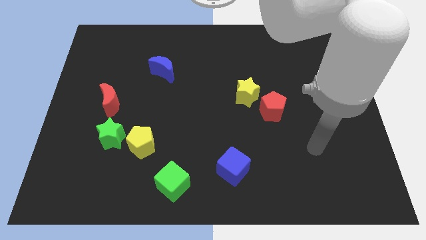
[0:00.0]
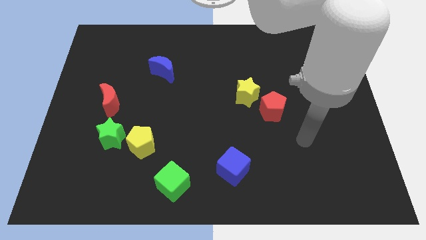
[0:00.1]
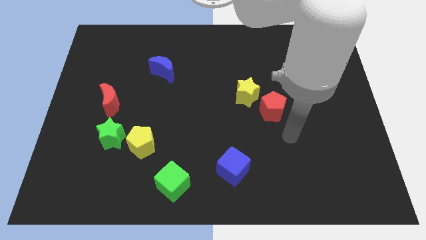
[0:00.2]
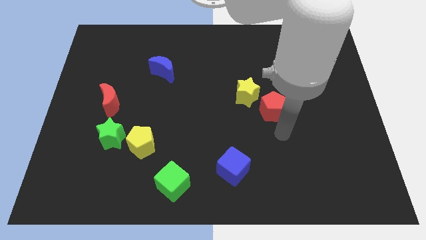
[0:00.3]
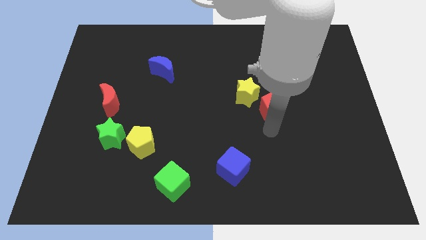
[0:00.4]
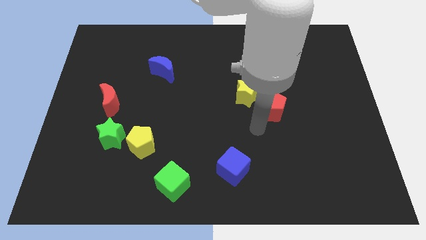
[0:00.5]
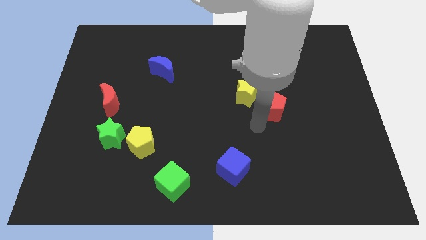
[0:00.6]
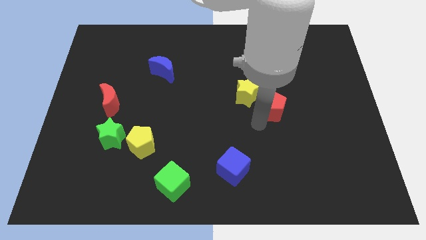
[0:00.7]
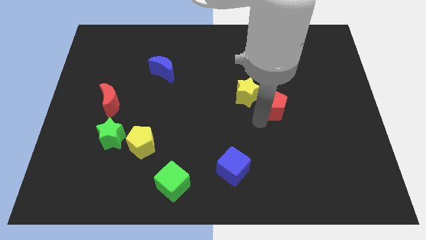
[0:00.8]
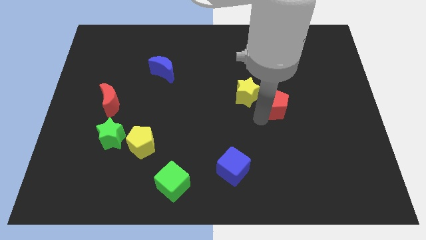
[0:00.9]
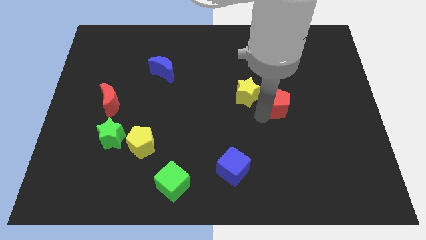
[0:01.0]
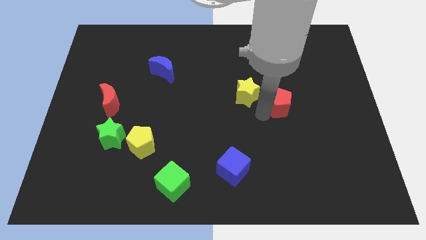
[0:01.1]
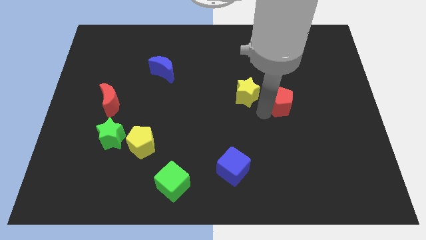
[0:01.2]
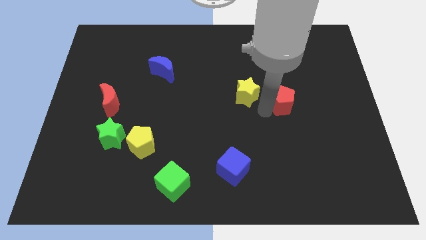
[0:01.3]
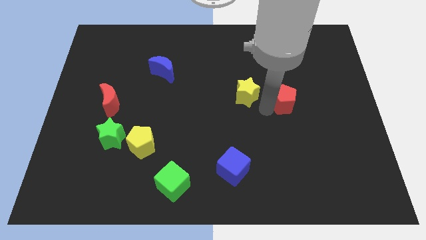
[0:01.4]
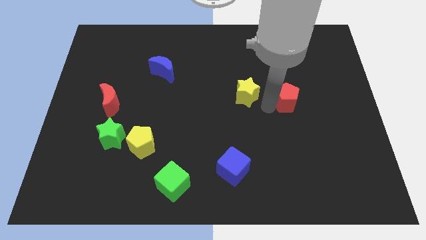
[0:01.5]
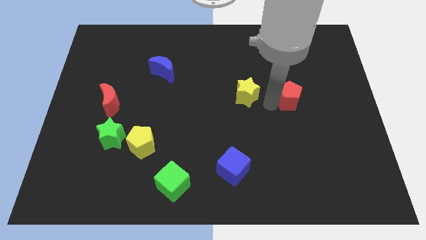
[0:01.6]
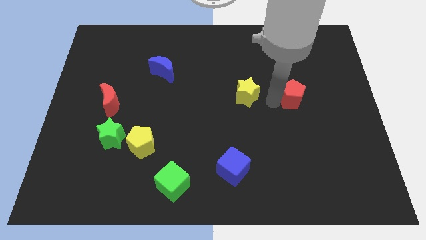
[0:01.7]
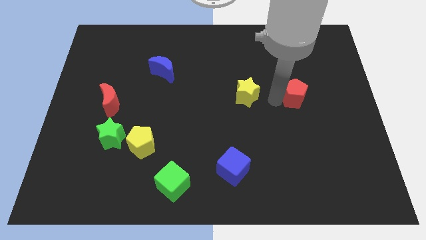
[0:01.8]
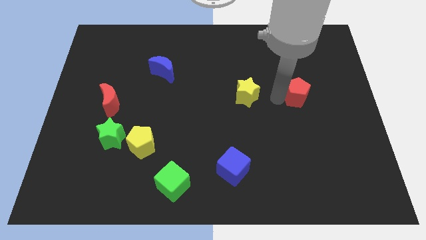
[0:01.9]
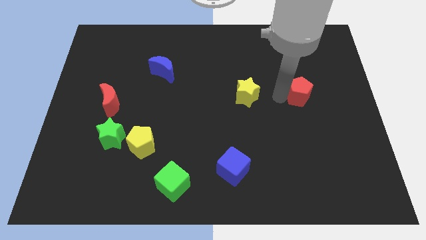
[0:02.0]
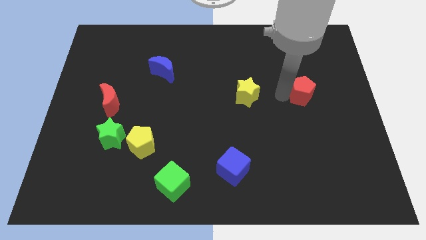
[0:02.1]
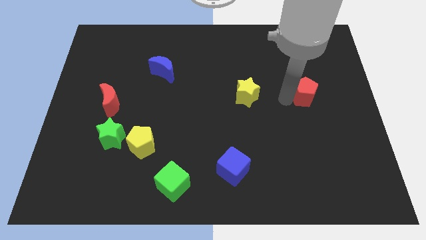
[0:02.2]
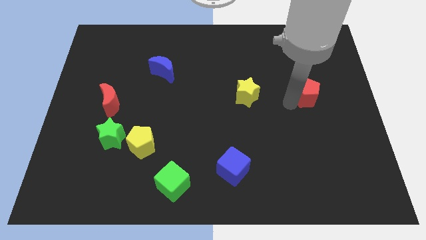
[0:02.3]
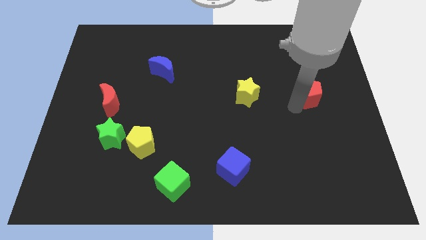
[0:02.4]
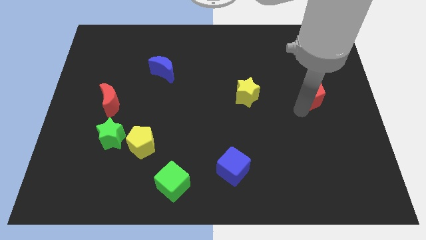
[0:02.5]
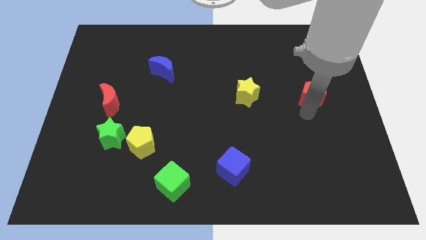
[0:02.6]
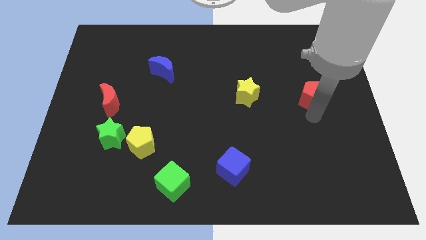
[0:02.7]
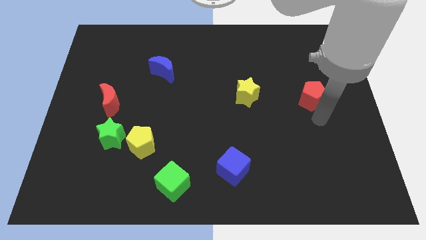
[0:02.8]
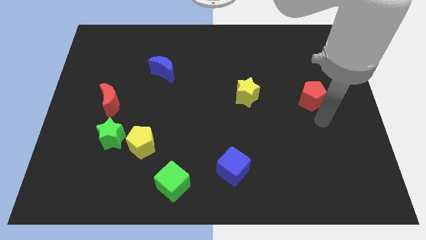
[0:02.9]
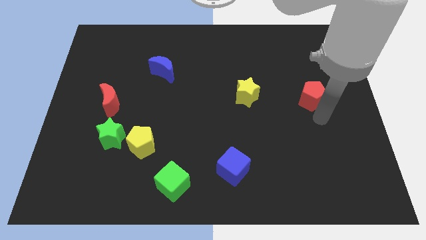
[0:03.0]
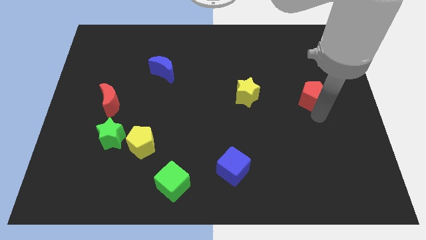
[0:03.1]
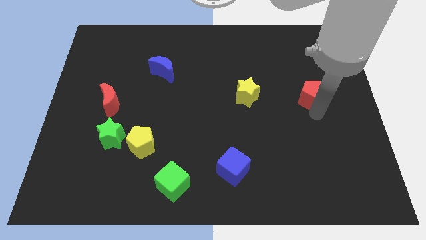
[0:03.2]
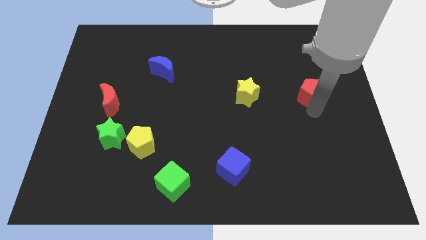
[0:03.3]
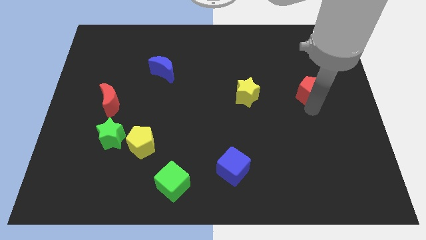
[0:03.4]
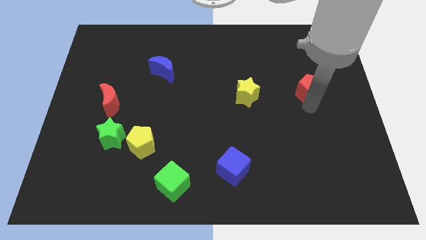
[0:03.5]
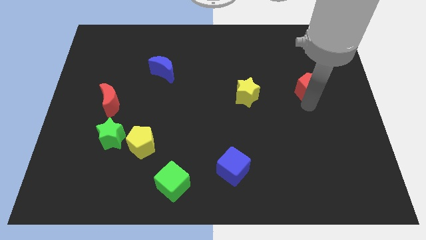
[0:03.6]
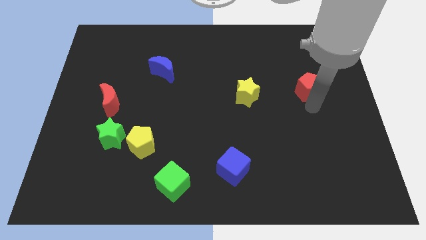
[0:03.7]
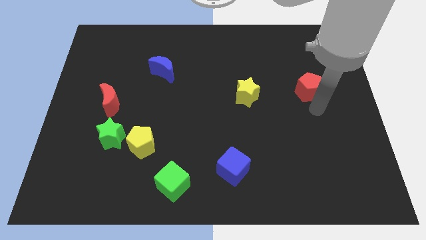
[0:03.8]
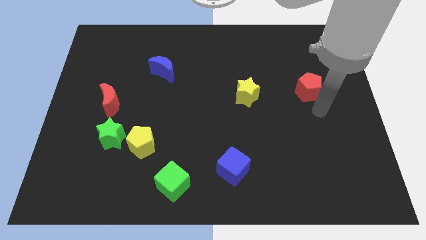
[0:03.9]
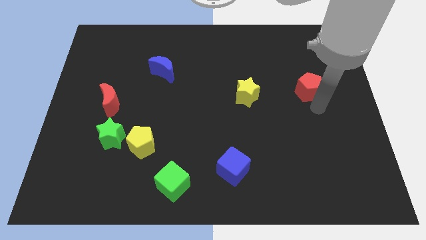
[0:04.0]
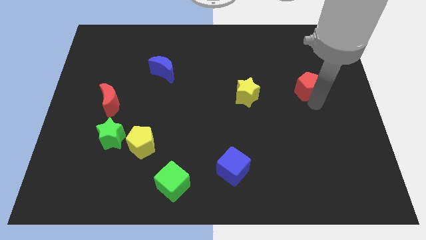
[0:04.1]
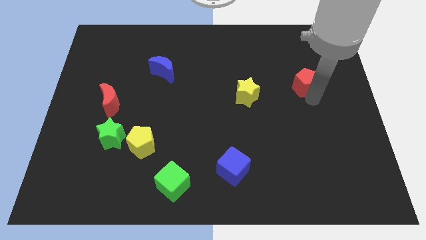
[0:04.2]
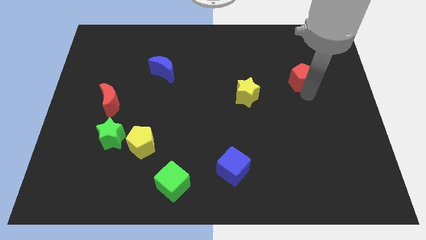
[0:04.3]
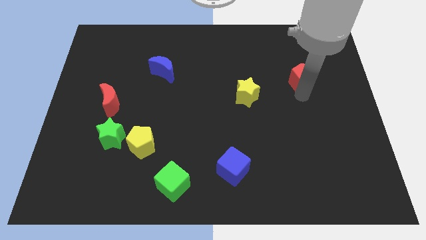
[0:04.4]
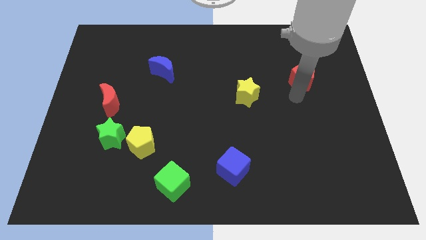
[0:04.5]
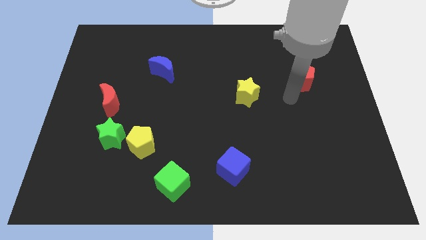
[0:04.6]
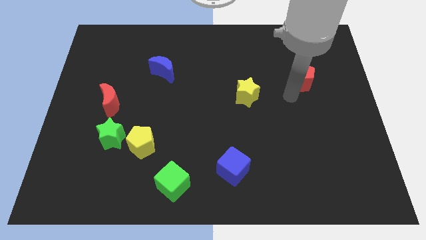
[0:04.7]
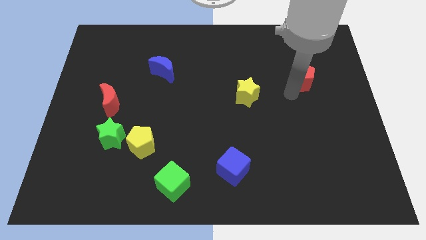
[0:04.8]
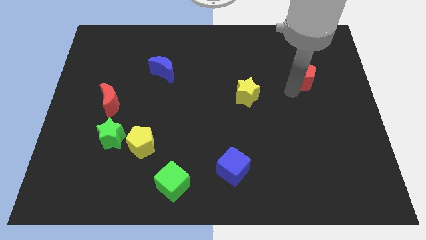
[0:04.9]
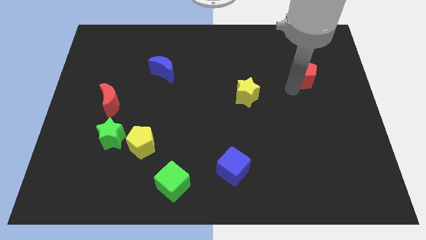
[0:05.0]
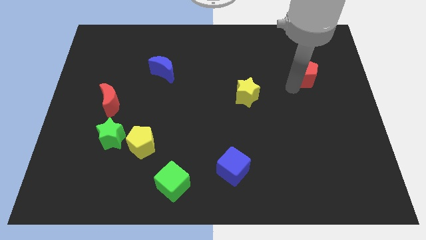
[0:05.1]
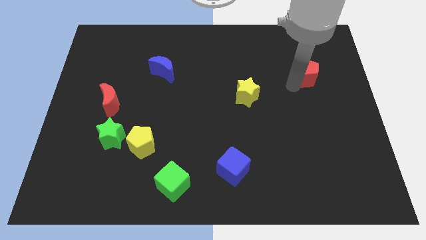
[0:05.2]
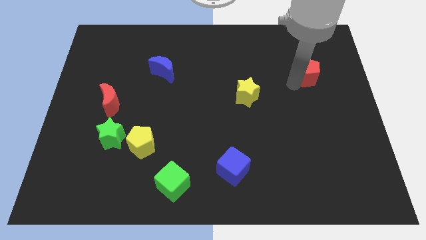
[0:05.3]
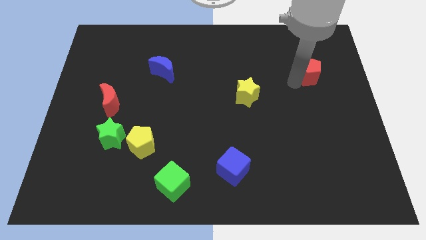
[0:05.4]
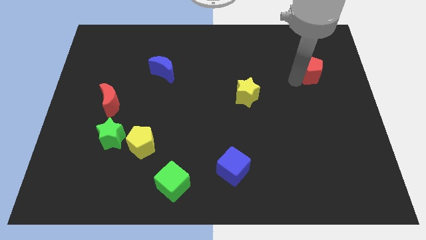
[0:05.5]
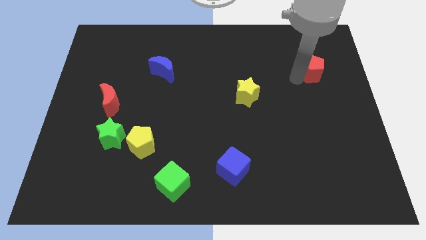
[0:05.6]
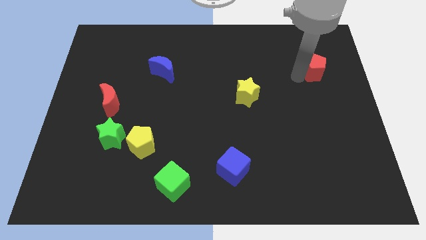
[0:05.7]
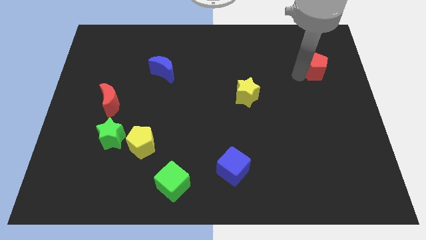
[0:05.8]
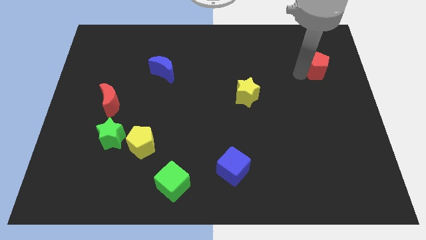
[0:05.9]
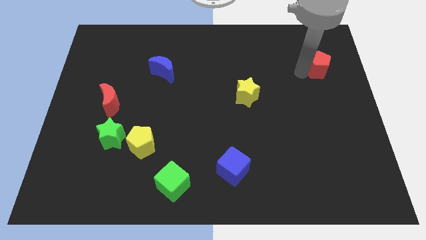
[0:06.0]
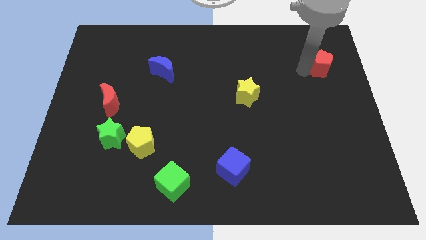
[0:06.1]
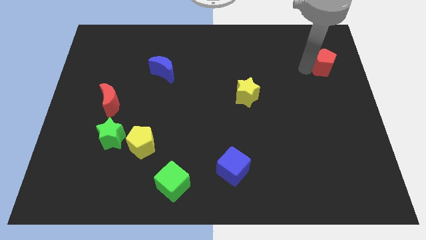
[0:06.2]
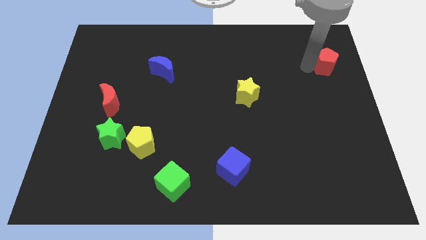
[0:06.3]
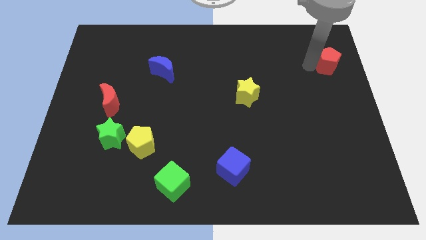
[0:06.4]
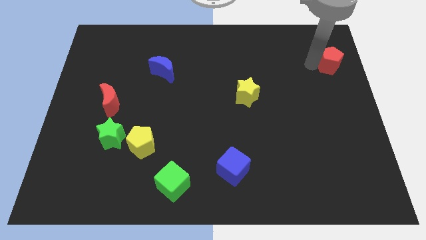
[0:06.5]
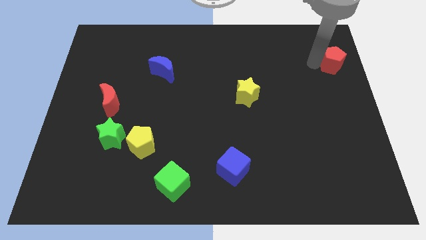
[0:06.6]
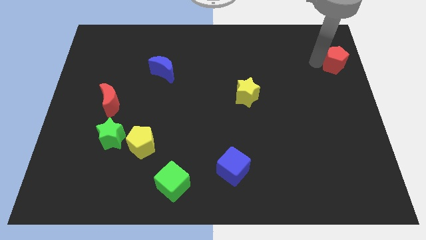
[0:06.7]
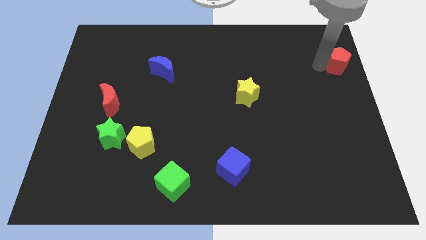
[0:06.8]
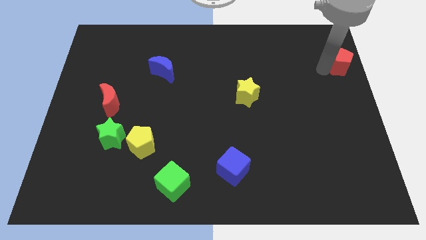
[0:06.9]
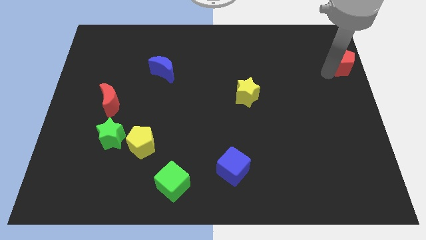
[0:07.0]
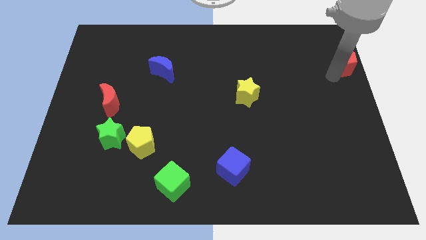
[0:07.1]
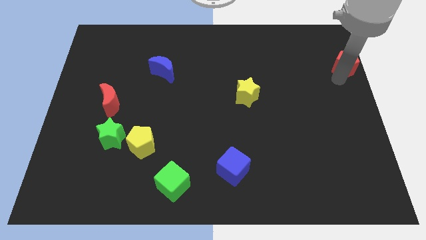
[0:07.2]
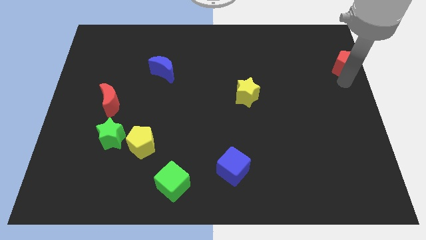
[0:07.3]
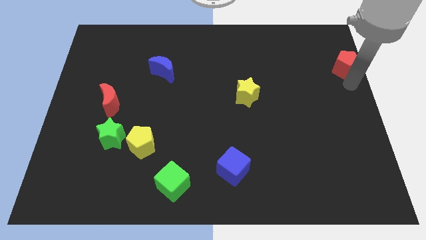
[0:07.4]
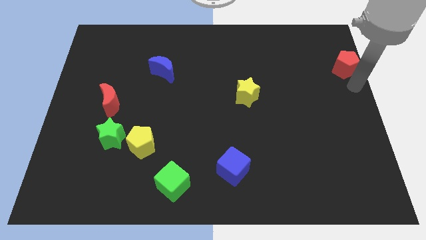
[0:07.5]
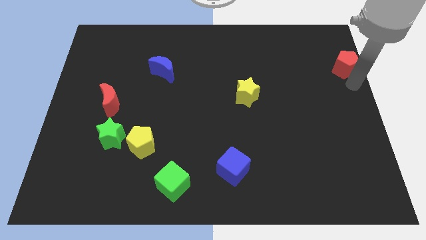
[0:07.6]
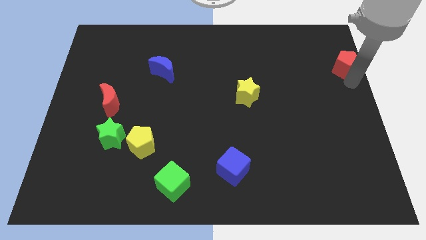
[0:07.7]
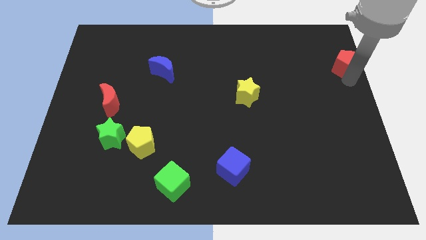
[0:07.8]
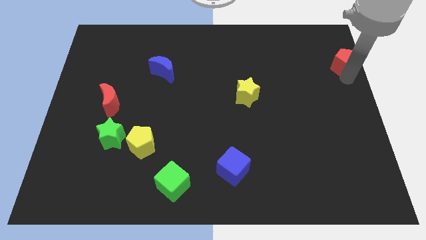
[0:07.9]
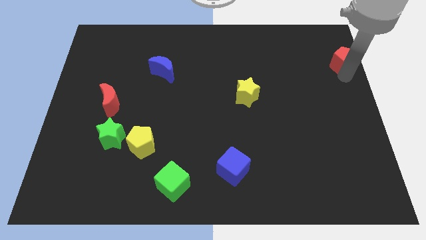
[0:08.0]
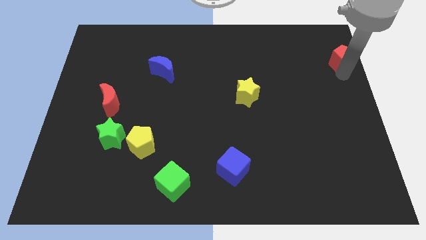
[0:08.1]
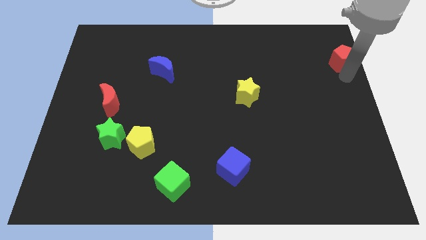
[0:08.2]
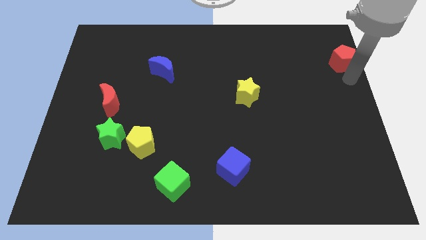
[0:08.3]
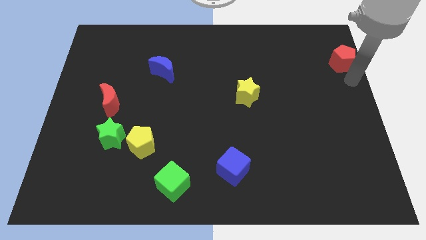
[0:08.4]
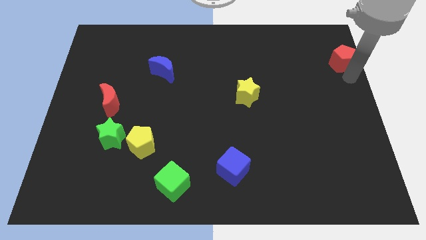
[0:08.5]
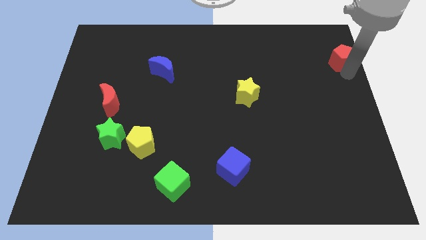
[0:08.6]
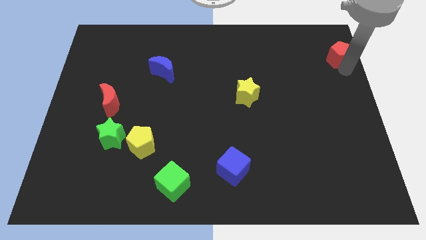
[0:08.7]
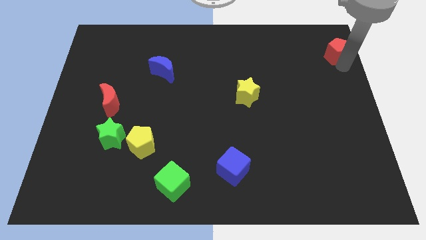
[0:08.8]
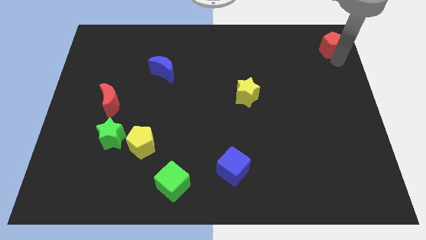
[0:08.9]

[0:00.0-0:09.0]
push the red pentagon to the top right
